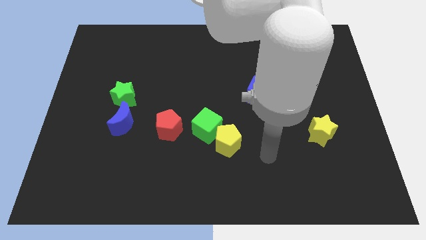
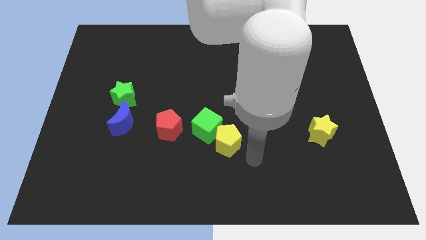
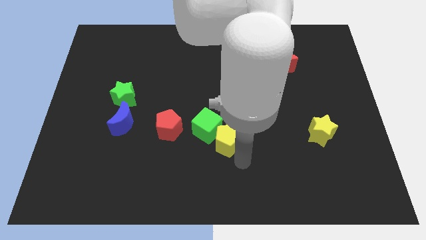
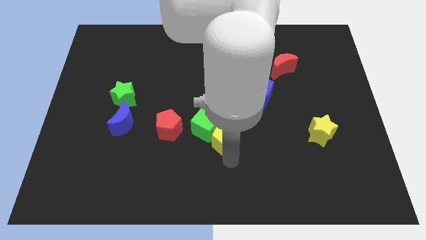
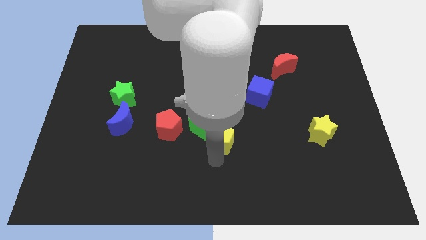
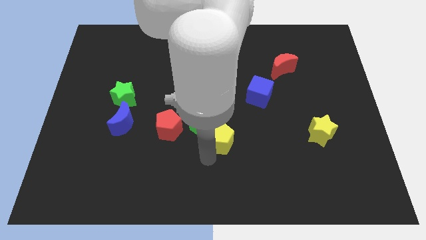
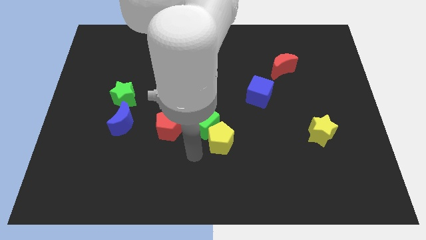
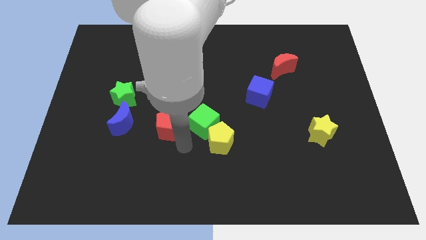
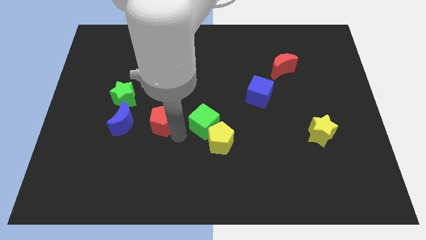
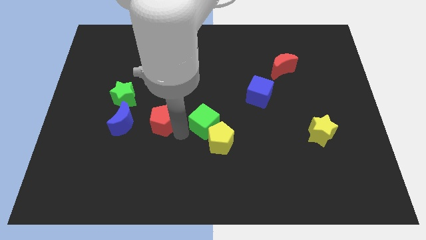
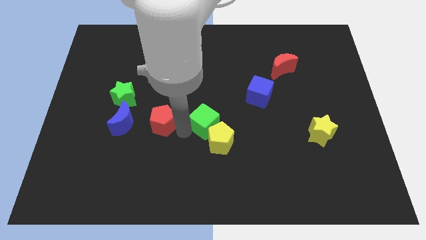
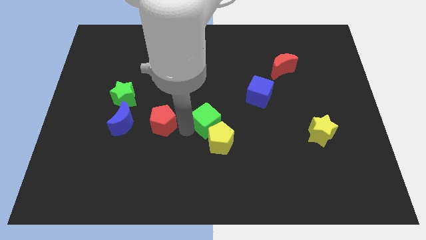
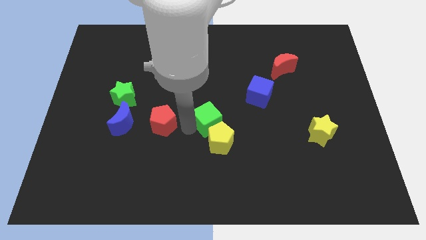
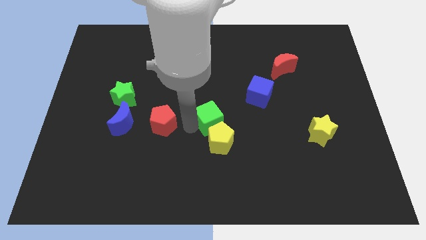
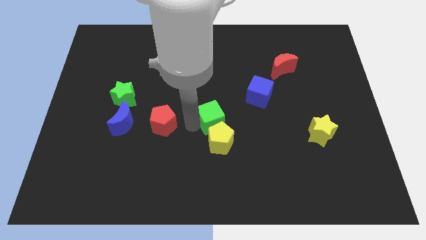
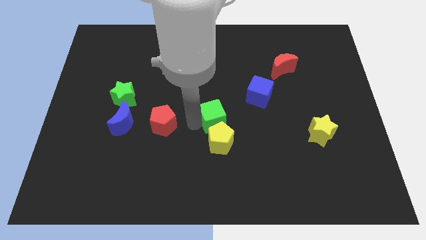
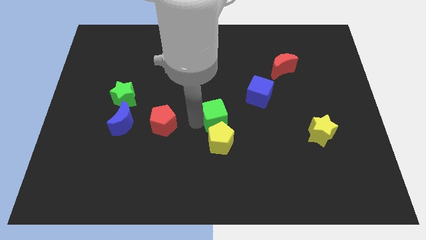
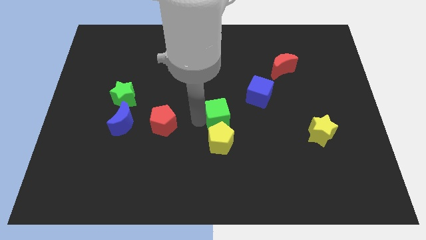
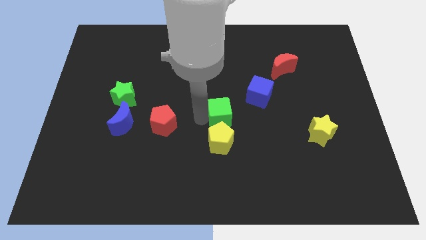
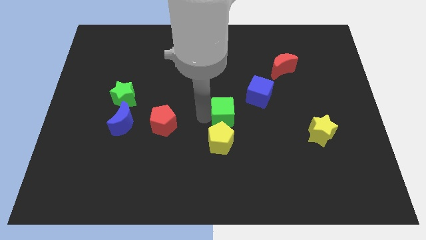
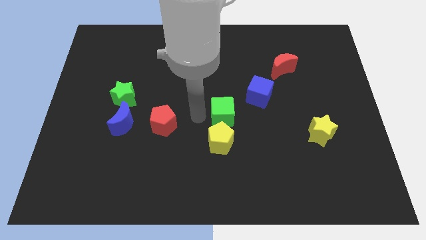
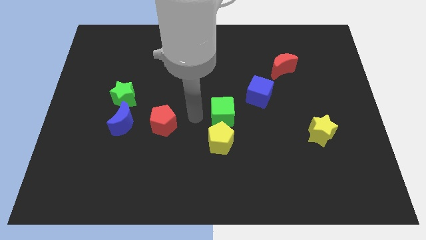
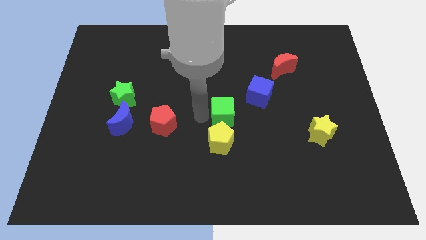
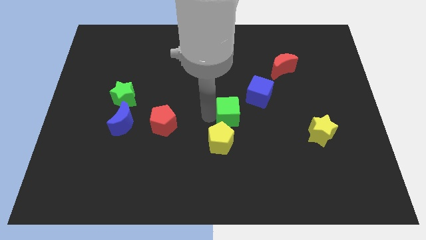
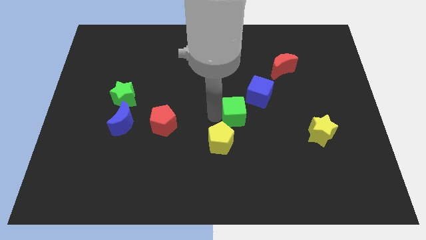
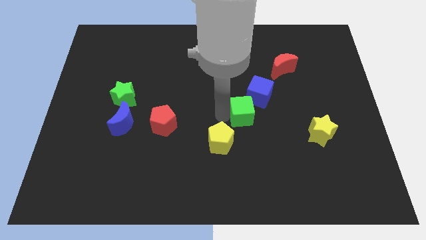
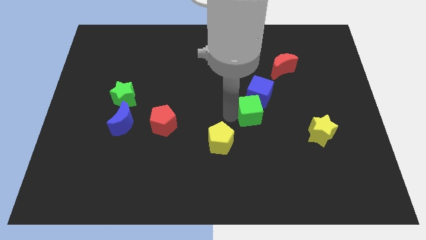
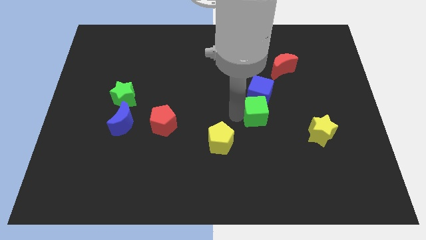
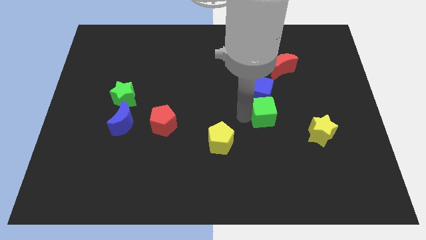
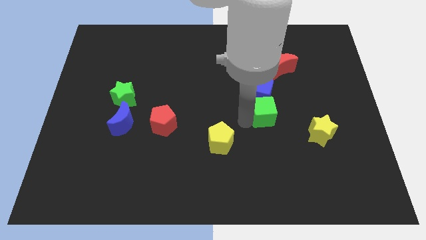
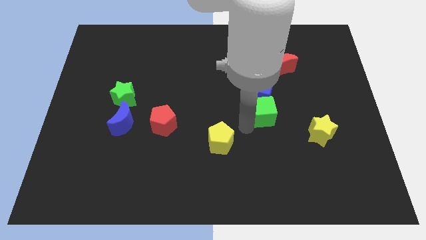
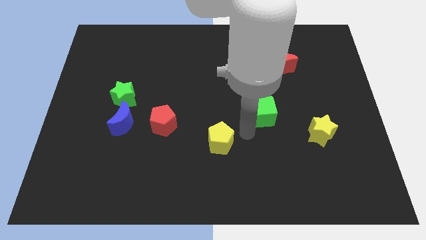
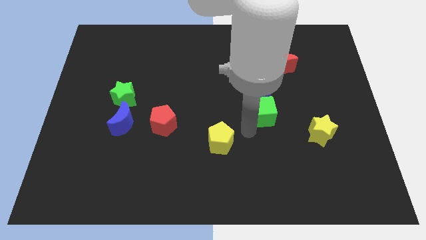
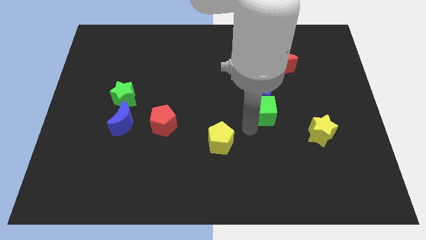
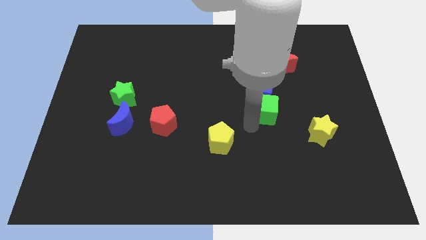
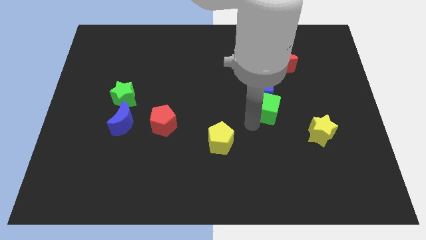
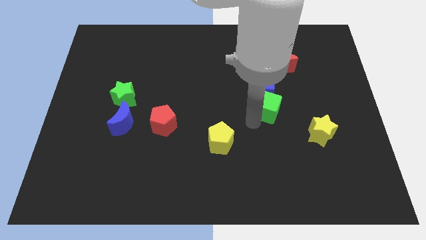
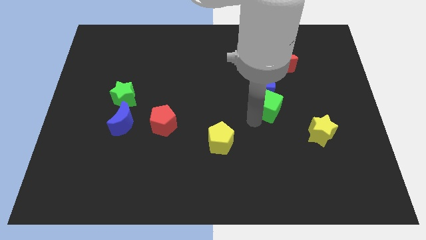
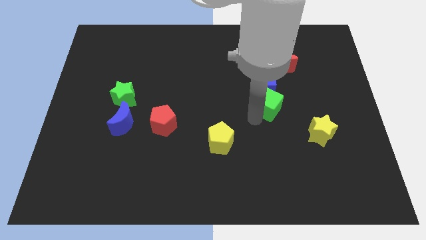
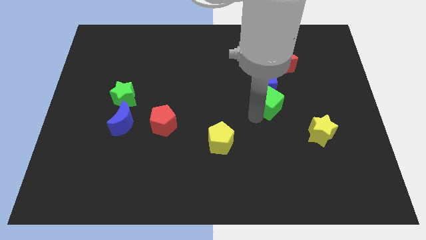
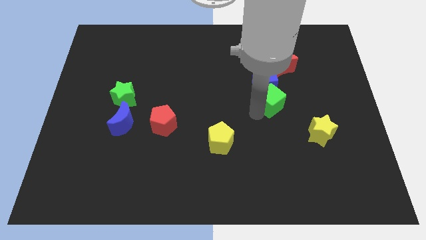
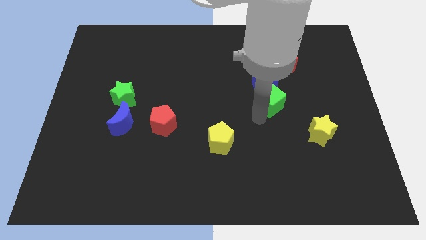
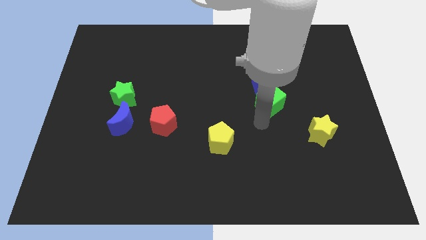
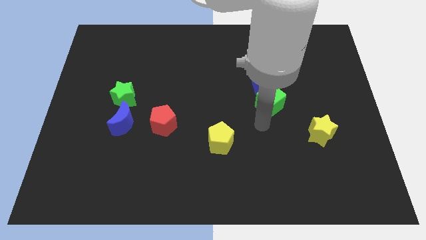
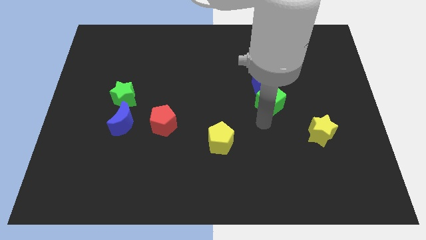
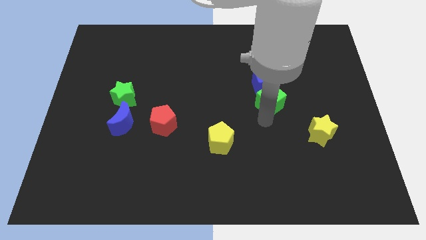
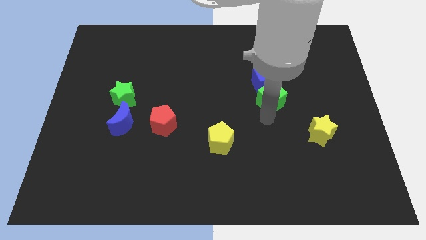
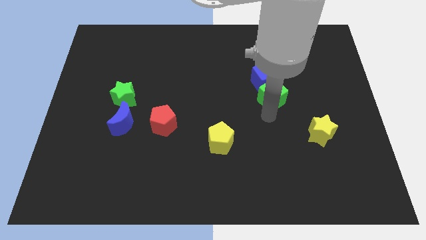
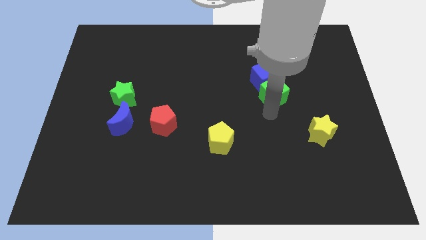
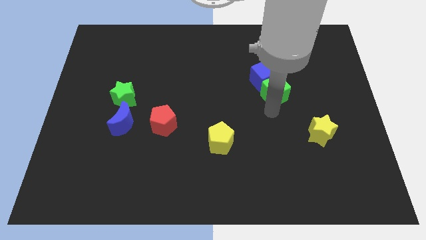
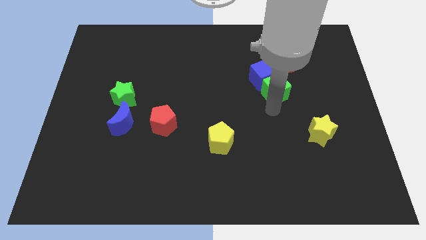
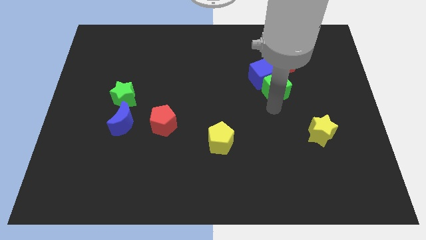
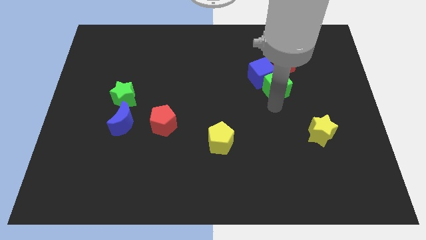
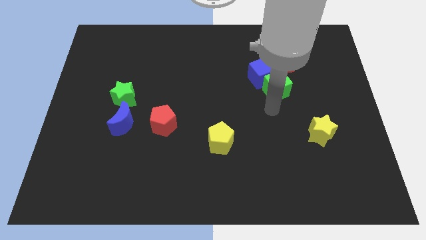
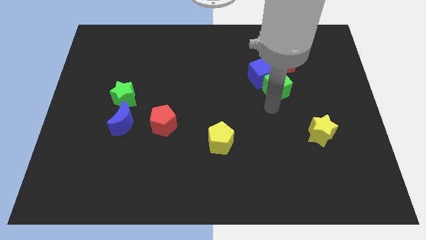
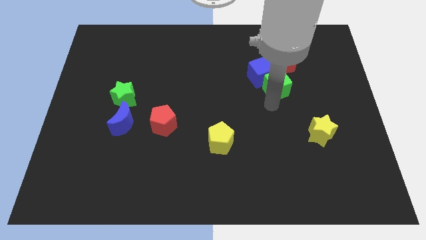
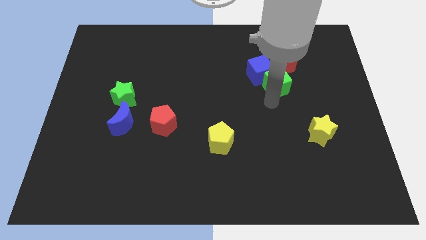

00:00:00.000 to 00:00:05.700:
move the green cube close to the red moon

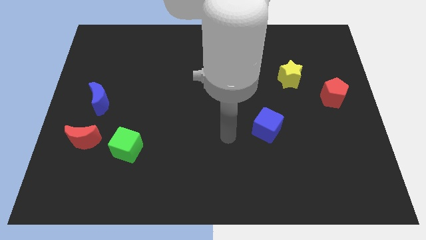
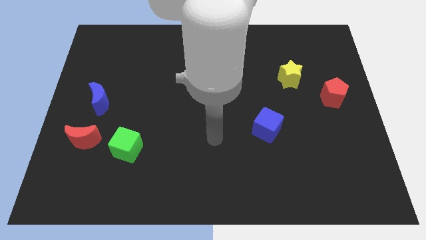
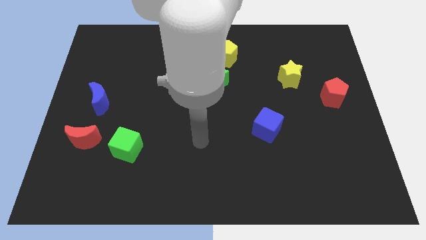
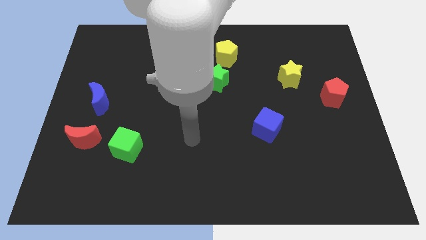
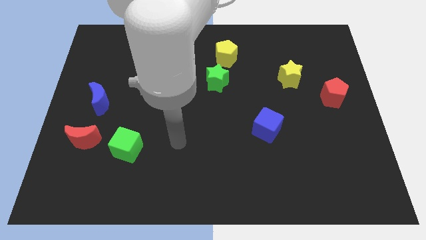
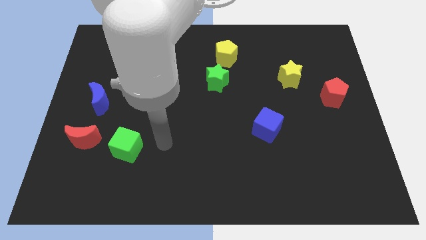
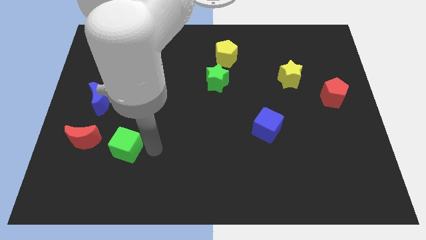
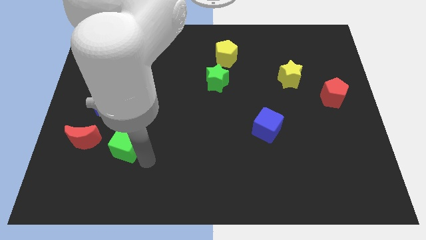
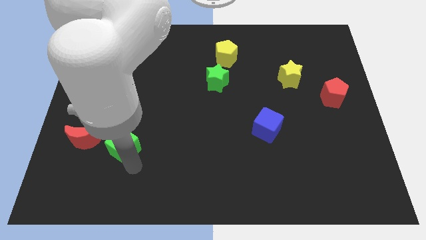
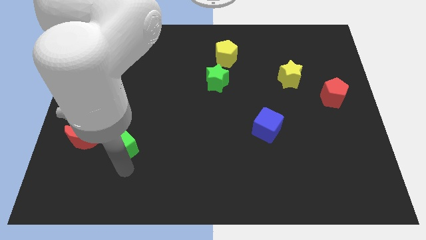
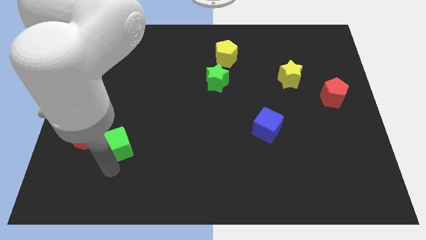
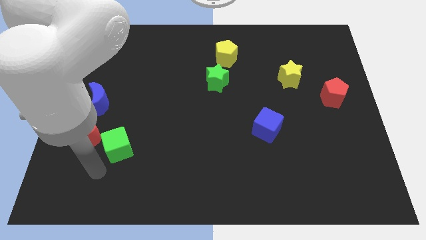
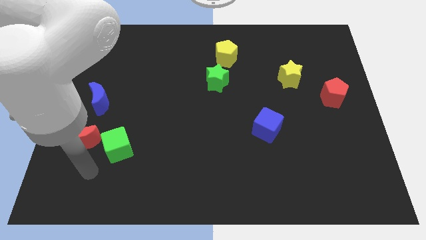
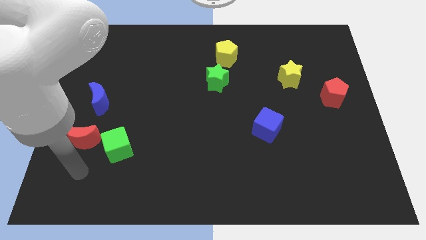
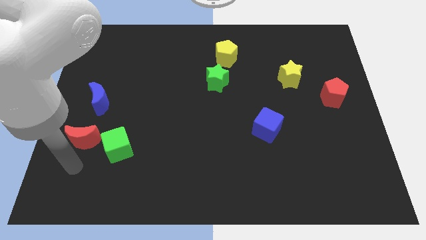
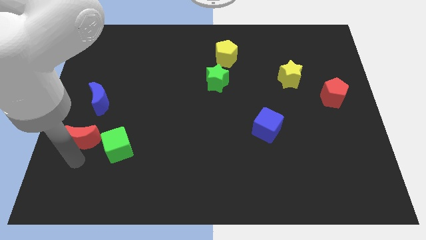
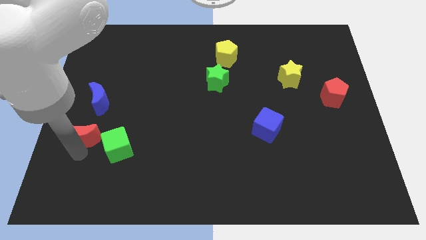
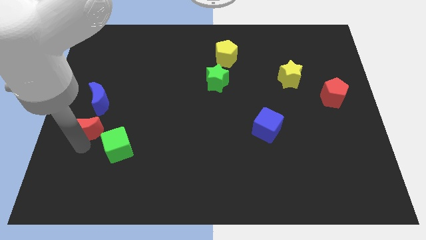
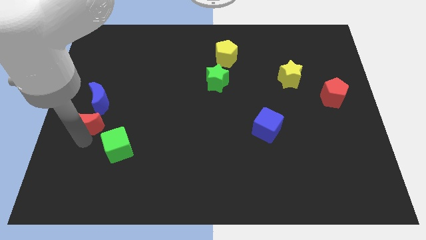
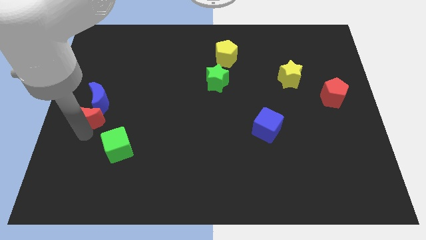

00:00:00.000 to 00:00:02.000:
move the red moon towards the blue moon
